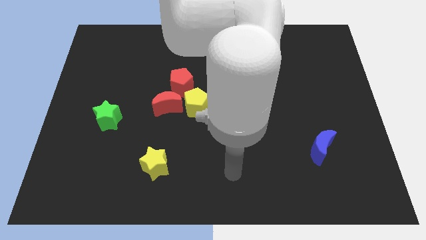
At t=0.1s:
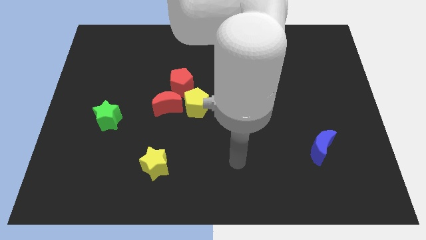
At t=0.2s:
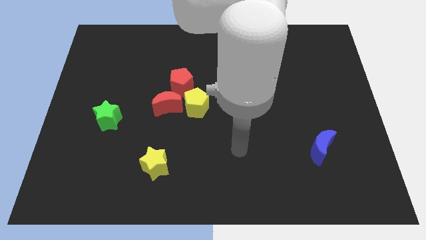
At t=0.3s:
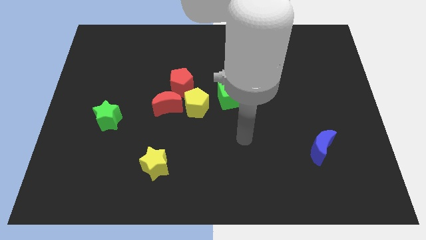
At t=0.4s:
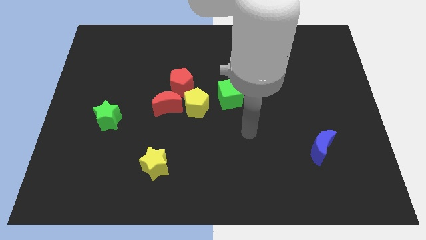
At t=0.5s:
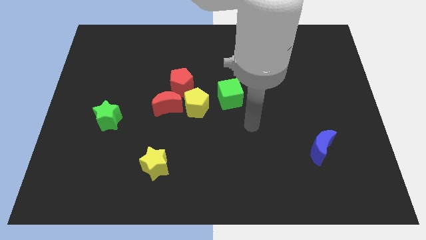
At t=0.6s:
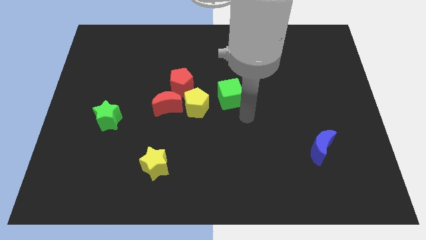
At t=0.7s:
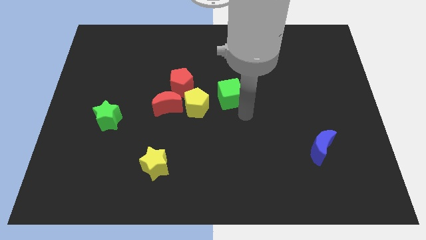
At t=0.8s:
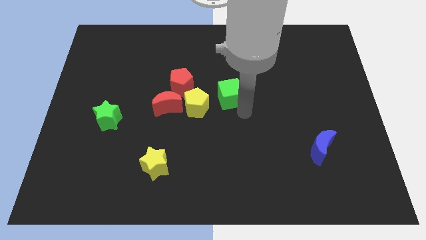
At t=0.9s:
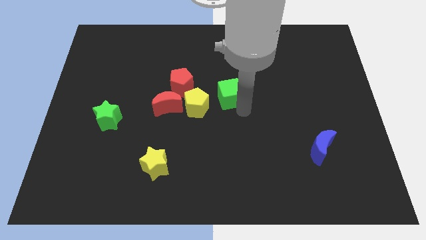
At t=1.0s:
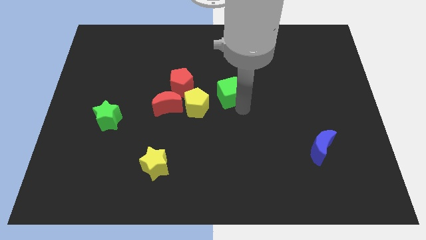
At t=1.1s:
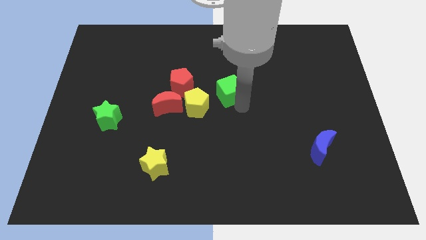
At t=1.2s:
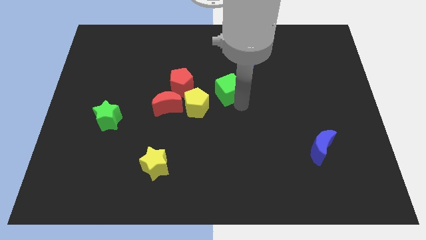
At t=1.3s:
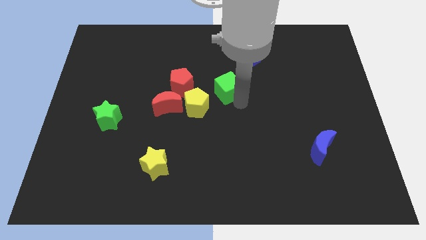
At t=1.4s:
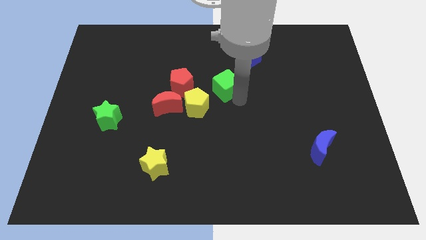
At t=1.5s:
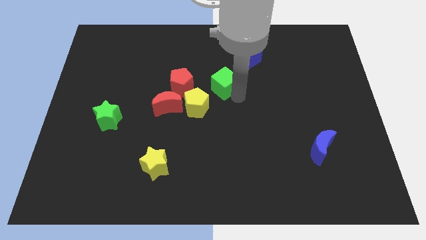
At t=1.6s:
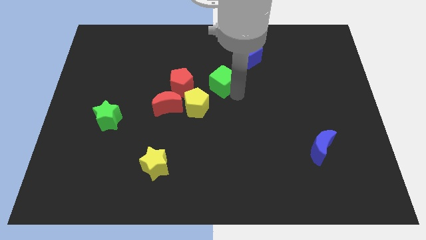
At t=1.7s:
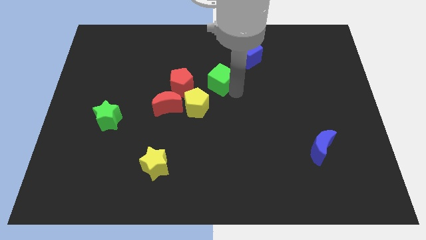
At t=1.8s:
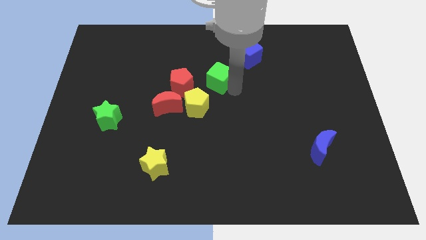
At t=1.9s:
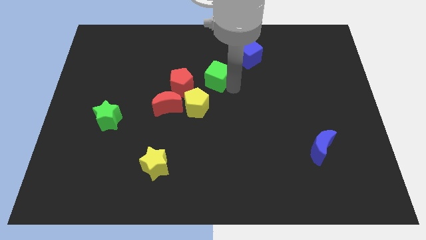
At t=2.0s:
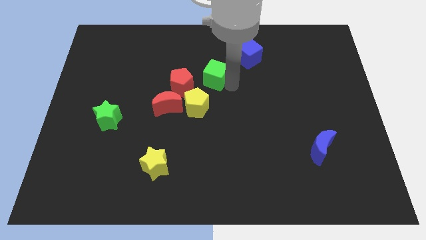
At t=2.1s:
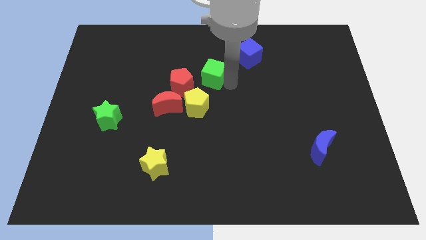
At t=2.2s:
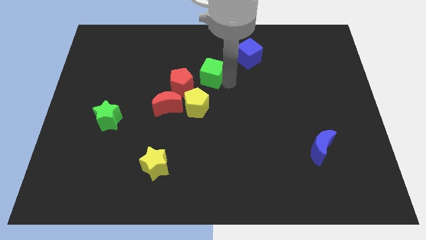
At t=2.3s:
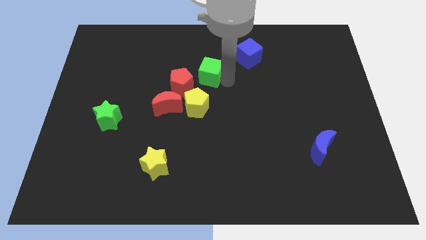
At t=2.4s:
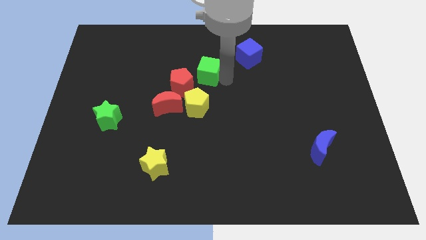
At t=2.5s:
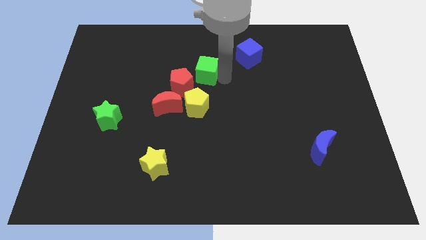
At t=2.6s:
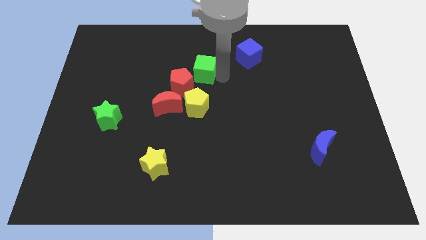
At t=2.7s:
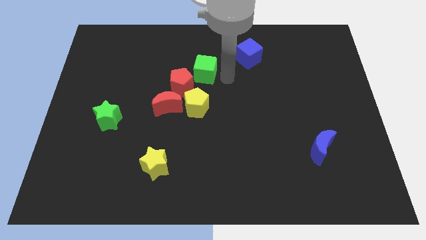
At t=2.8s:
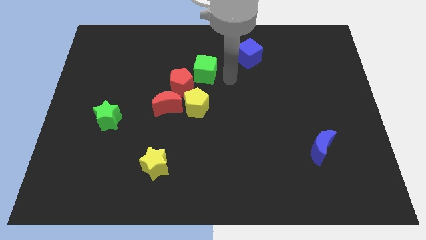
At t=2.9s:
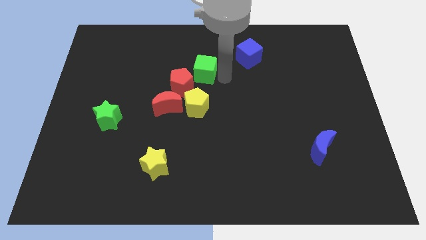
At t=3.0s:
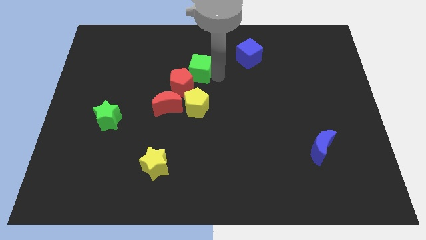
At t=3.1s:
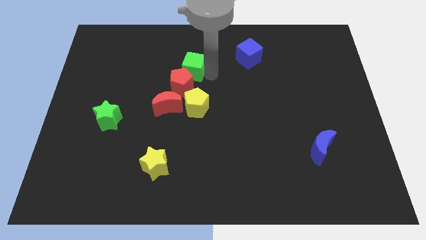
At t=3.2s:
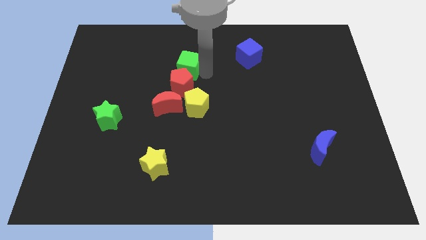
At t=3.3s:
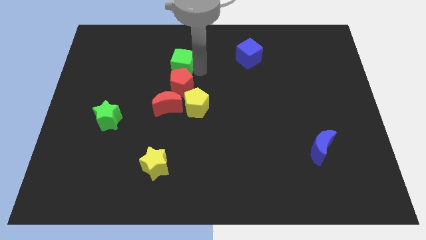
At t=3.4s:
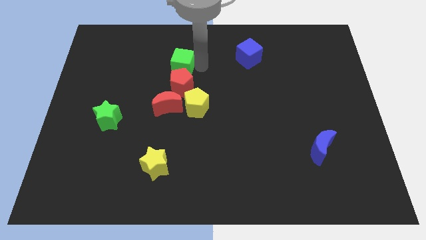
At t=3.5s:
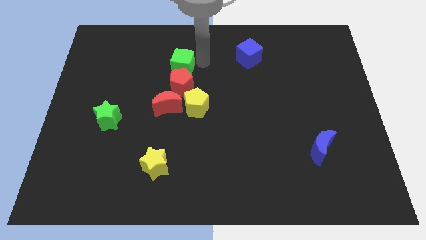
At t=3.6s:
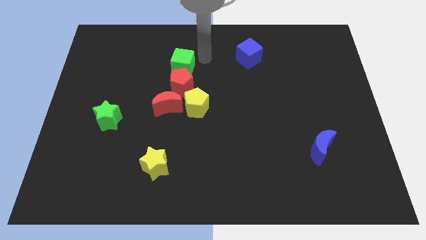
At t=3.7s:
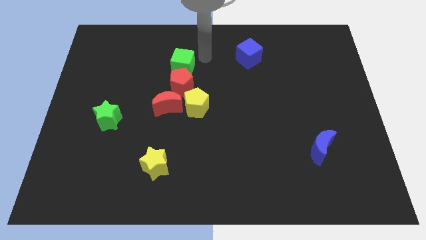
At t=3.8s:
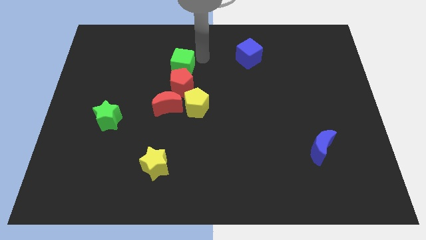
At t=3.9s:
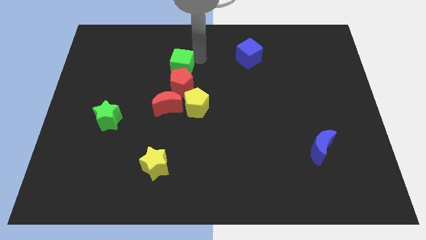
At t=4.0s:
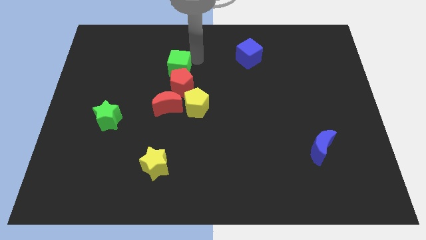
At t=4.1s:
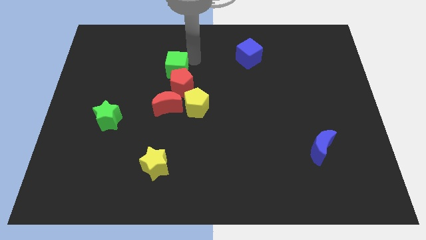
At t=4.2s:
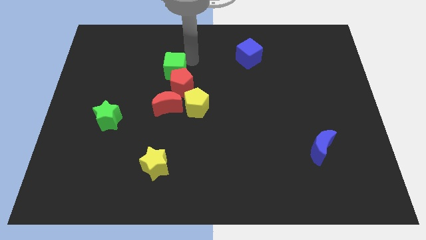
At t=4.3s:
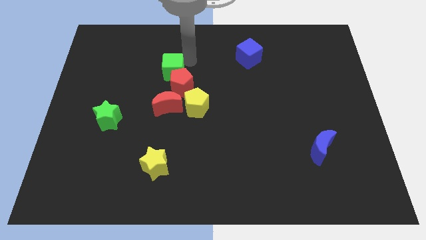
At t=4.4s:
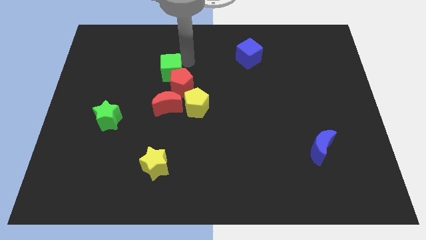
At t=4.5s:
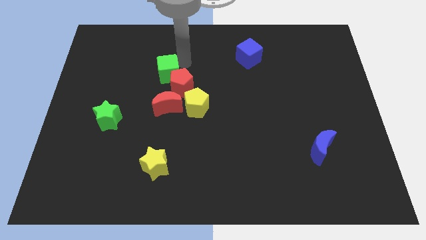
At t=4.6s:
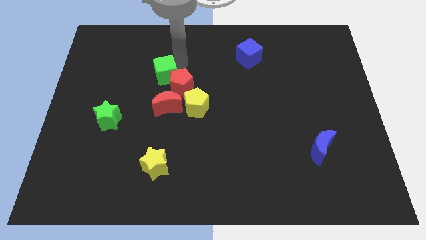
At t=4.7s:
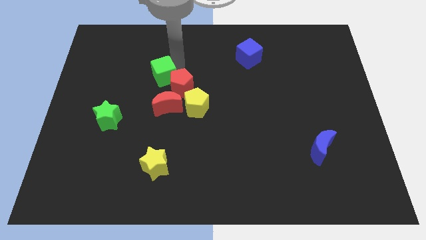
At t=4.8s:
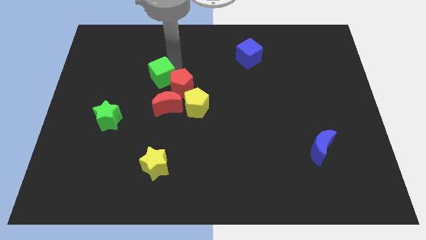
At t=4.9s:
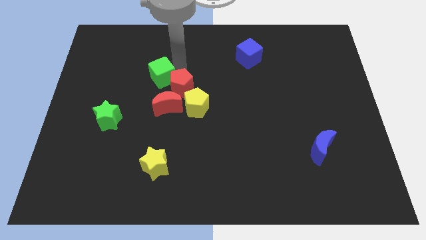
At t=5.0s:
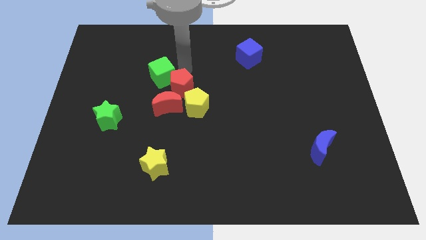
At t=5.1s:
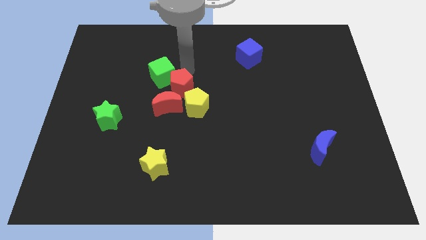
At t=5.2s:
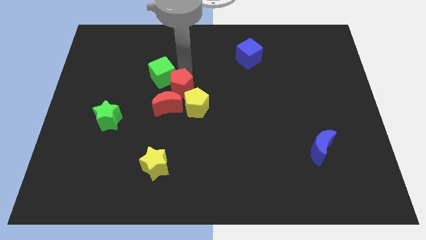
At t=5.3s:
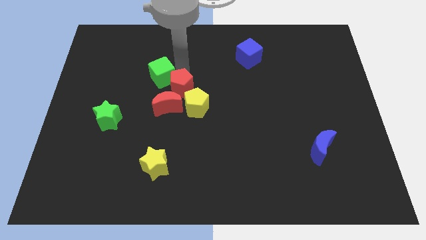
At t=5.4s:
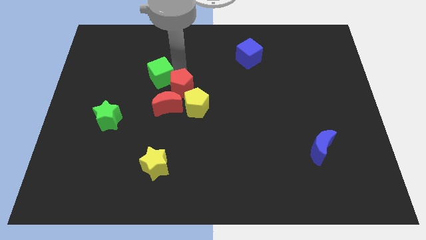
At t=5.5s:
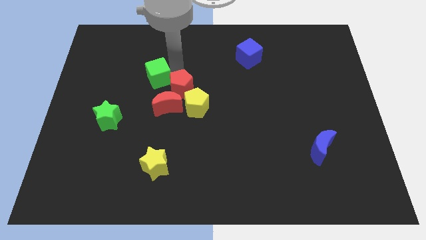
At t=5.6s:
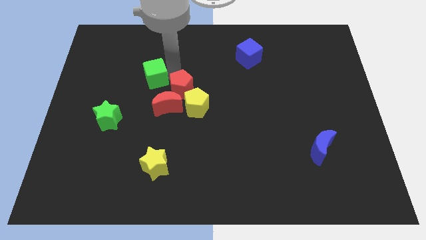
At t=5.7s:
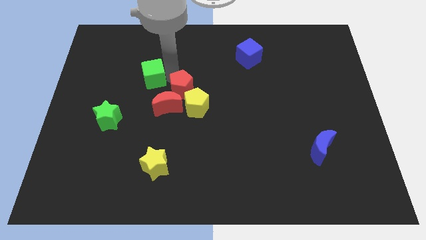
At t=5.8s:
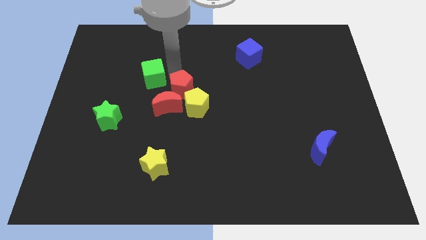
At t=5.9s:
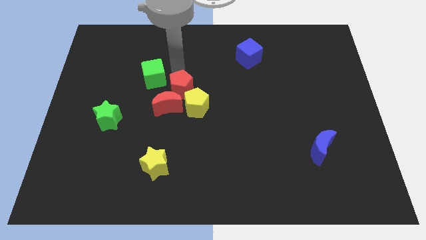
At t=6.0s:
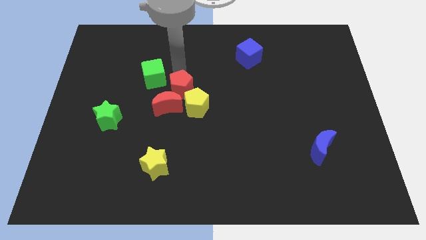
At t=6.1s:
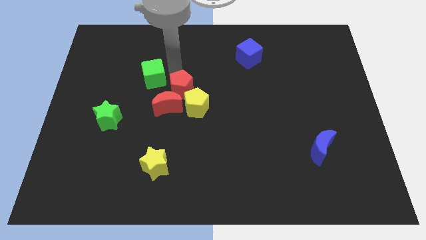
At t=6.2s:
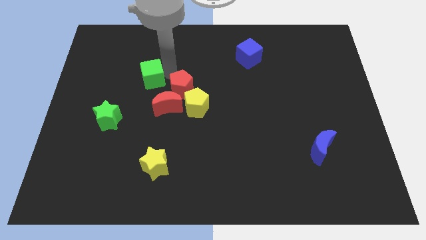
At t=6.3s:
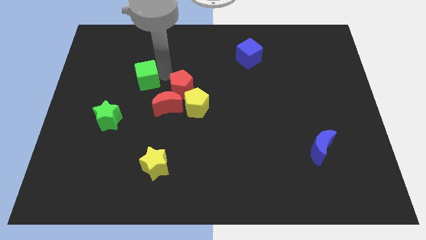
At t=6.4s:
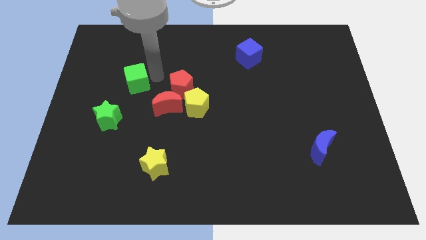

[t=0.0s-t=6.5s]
push the green cube left

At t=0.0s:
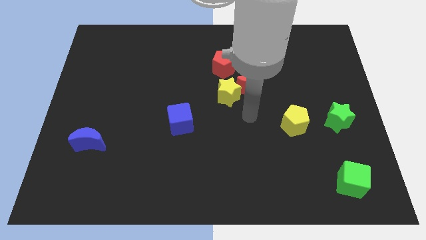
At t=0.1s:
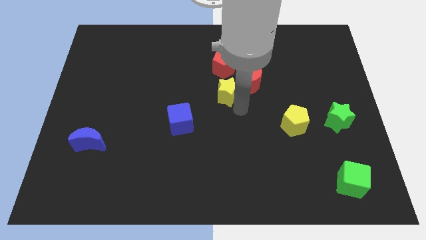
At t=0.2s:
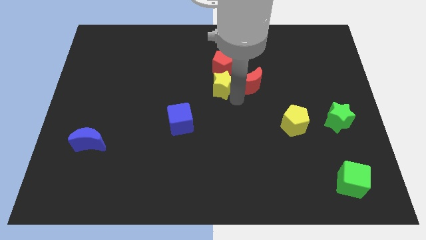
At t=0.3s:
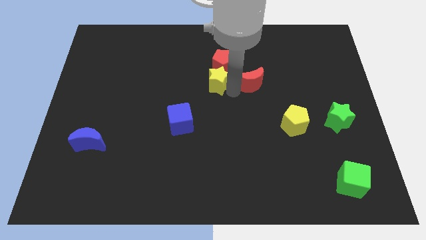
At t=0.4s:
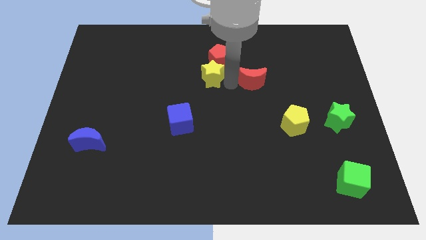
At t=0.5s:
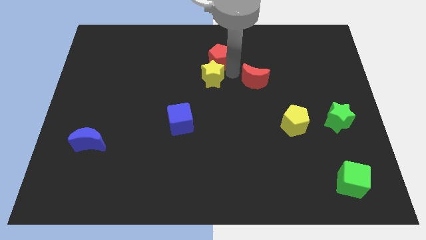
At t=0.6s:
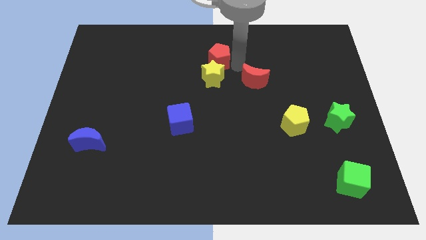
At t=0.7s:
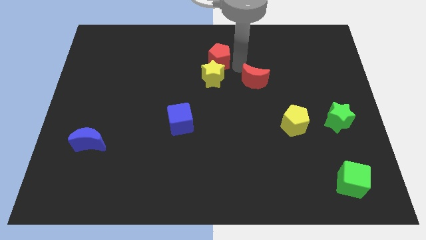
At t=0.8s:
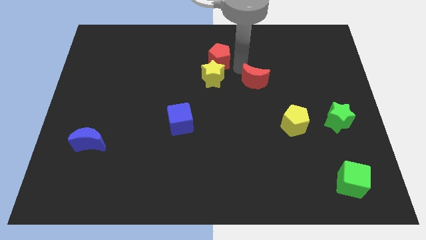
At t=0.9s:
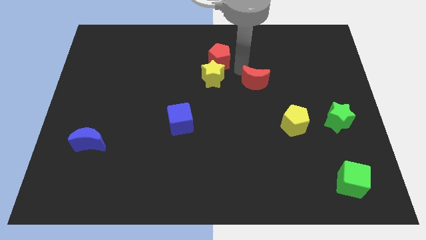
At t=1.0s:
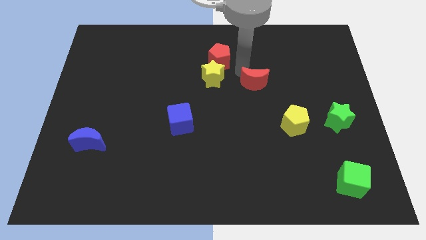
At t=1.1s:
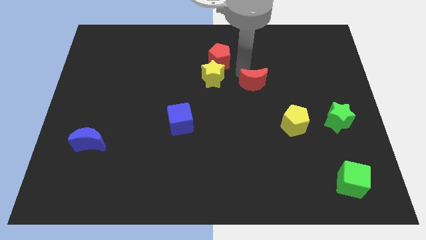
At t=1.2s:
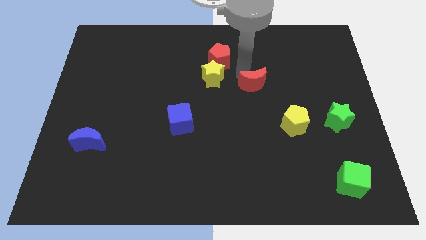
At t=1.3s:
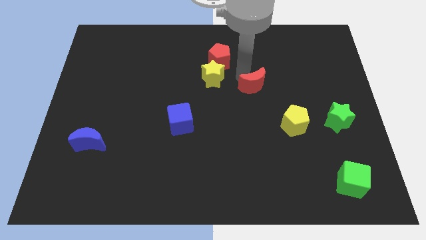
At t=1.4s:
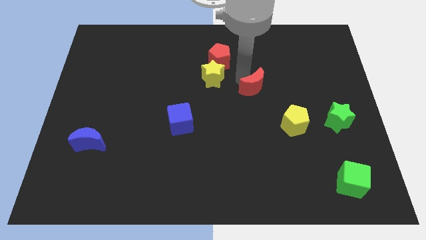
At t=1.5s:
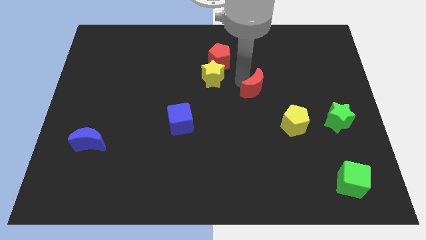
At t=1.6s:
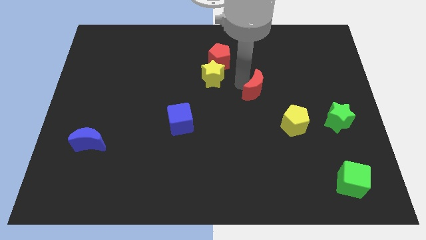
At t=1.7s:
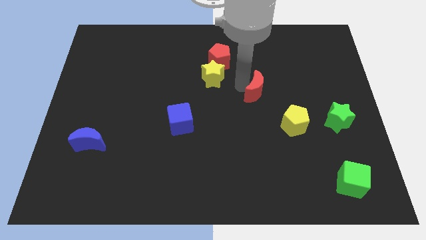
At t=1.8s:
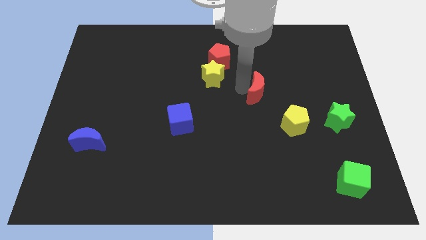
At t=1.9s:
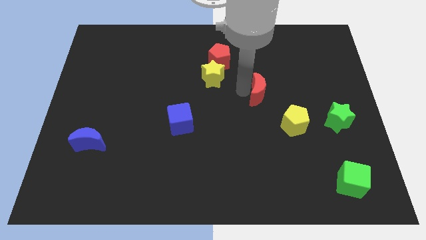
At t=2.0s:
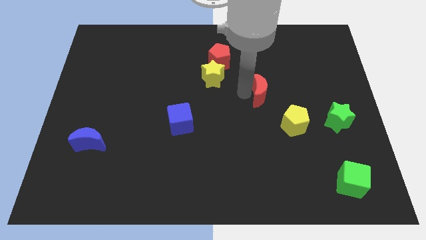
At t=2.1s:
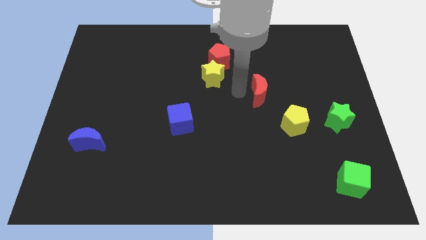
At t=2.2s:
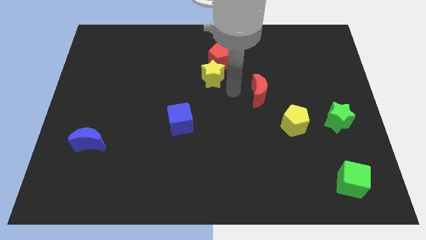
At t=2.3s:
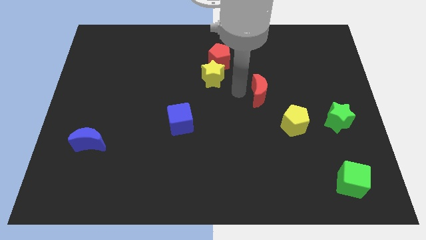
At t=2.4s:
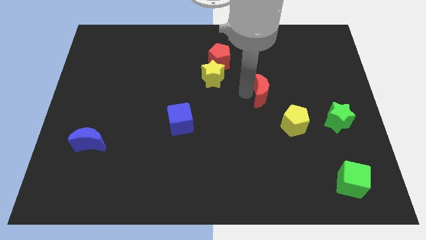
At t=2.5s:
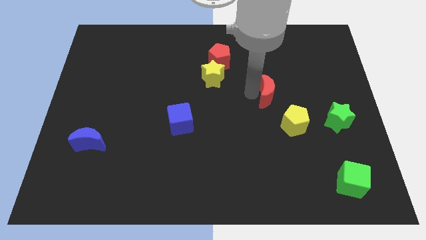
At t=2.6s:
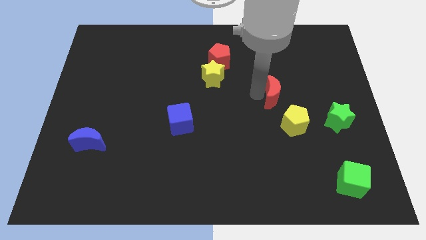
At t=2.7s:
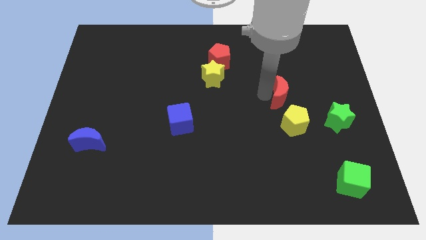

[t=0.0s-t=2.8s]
slide the red moon downwards and then right somewhat
